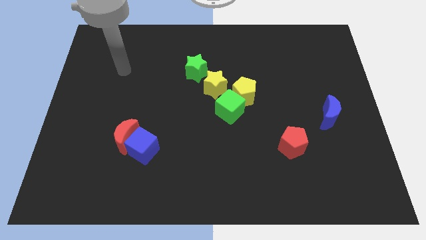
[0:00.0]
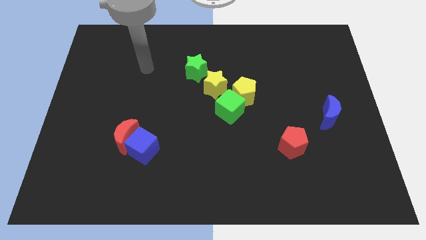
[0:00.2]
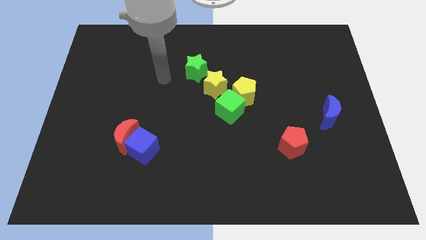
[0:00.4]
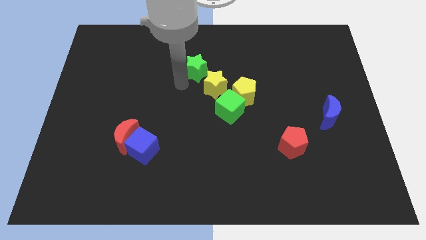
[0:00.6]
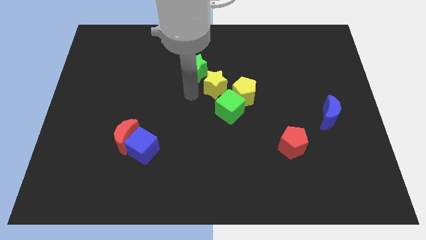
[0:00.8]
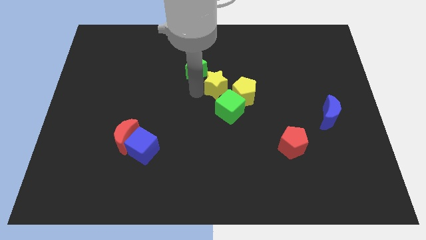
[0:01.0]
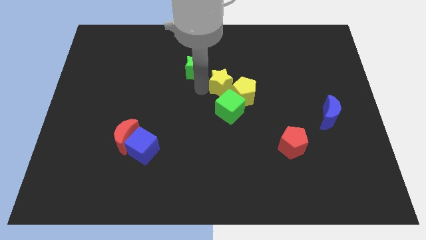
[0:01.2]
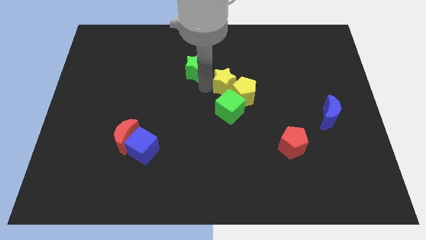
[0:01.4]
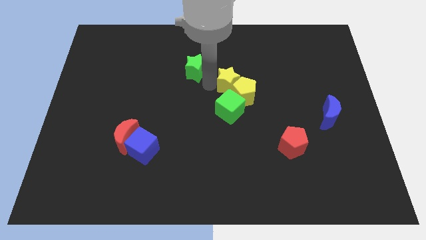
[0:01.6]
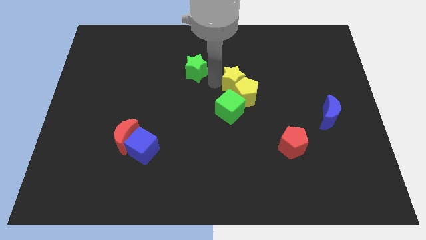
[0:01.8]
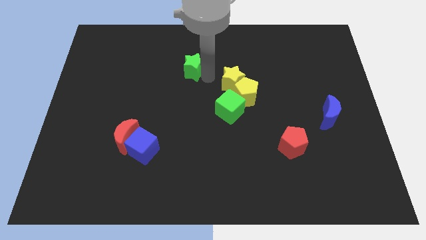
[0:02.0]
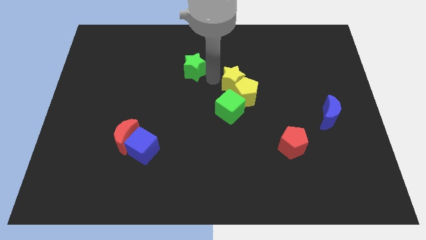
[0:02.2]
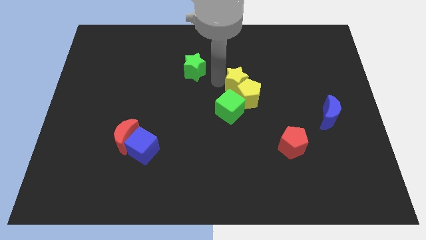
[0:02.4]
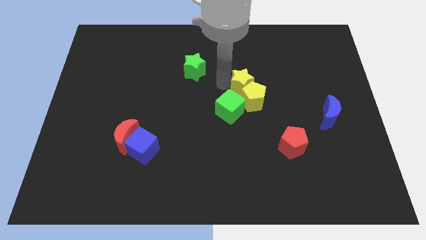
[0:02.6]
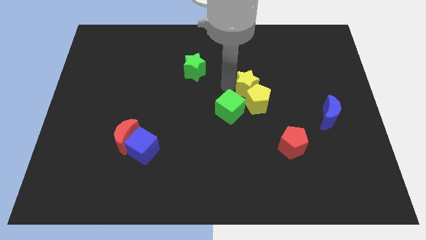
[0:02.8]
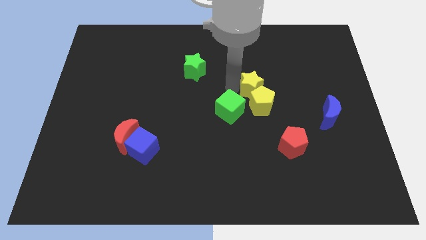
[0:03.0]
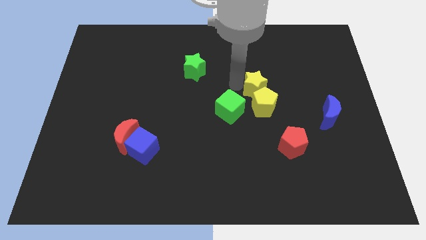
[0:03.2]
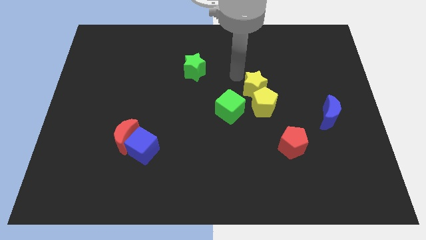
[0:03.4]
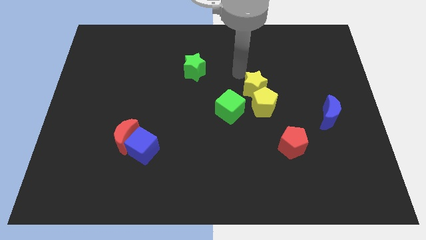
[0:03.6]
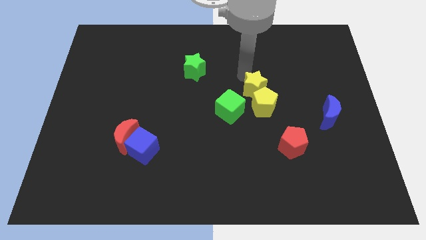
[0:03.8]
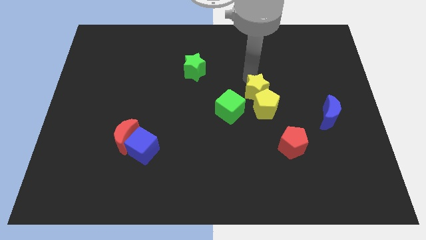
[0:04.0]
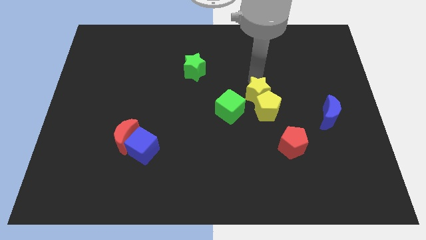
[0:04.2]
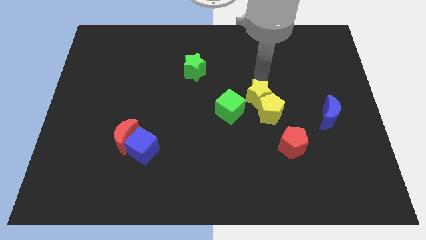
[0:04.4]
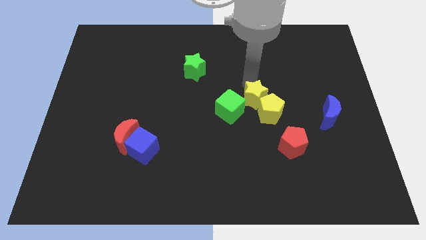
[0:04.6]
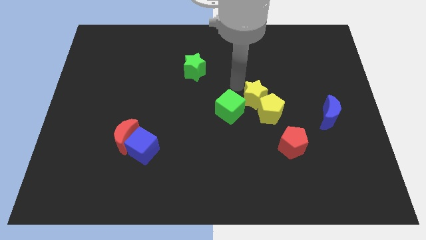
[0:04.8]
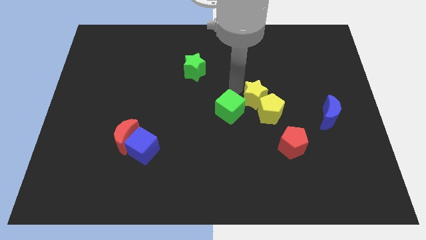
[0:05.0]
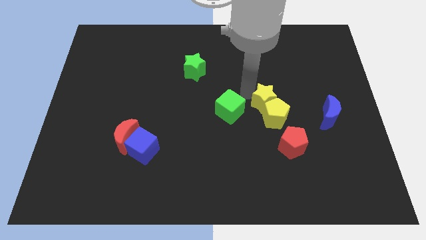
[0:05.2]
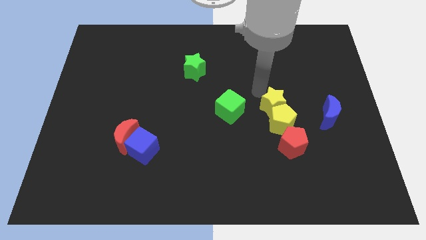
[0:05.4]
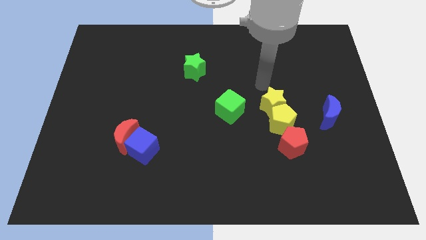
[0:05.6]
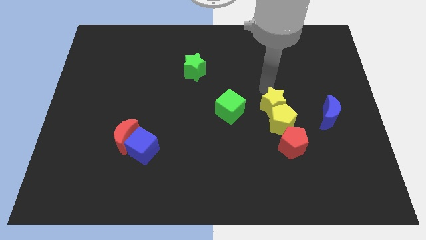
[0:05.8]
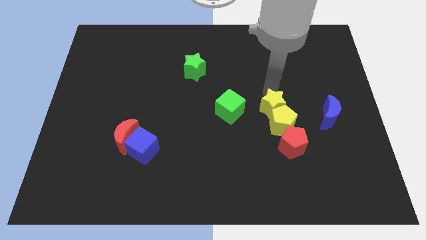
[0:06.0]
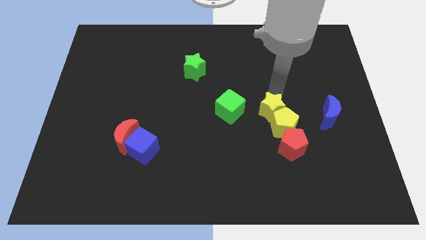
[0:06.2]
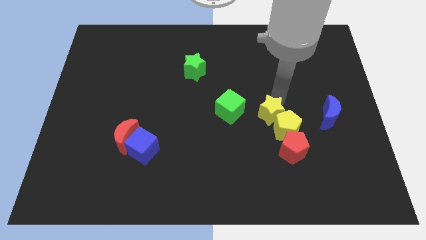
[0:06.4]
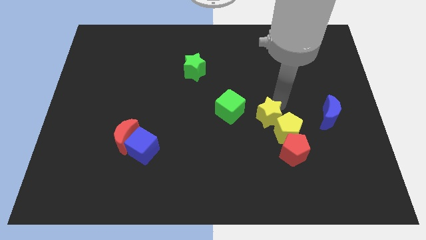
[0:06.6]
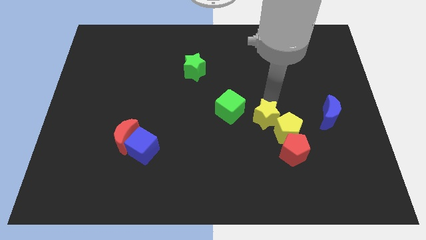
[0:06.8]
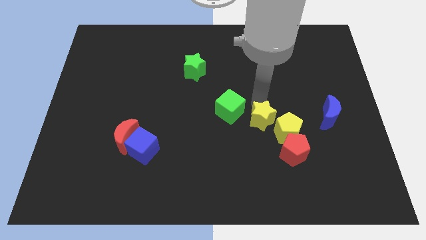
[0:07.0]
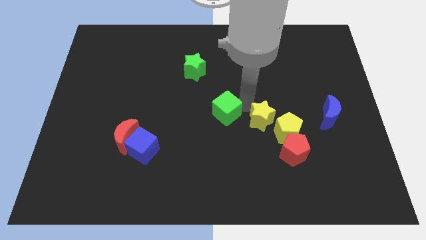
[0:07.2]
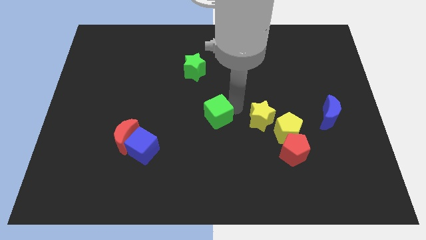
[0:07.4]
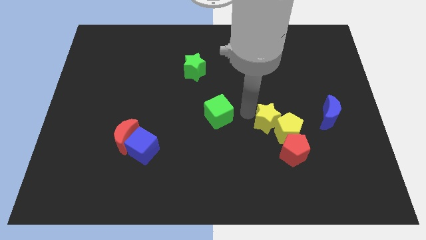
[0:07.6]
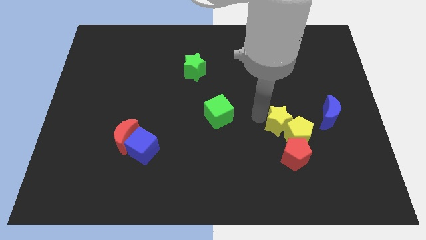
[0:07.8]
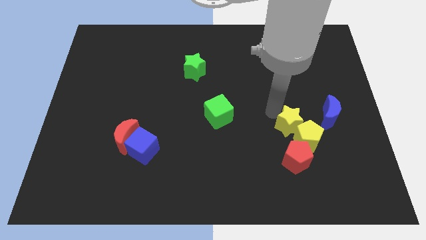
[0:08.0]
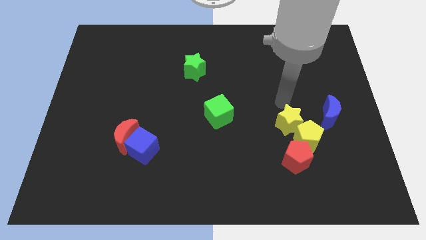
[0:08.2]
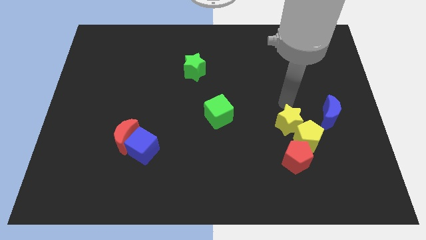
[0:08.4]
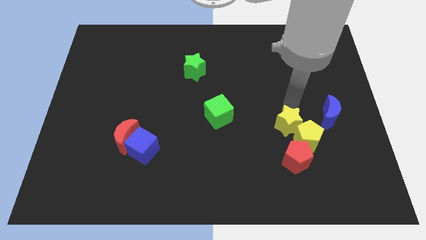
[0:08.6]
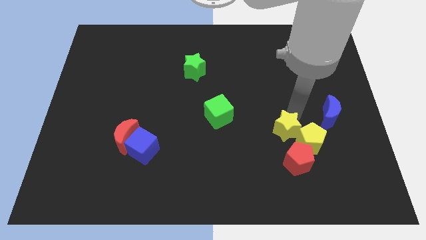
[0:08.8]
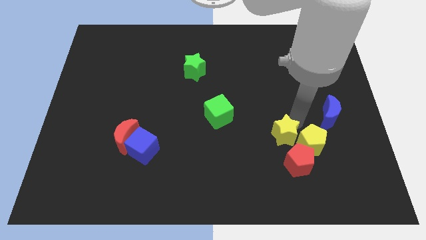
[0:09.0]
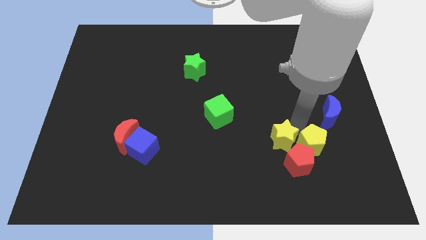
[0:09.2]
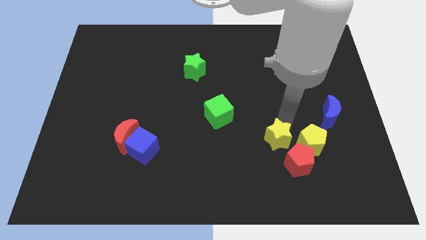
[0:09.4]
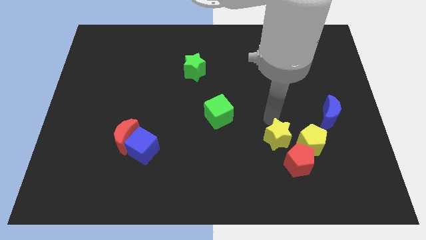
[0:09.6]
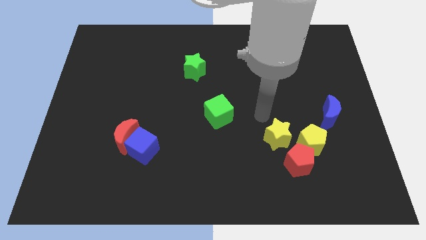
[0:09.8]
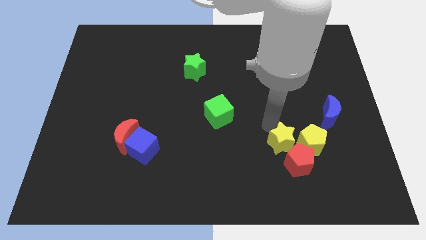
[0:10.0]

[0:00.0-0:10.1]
move the yellow star towards the red pentagon

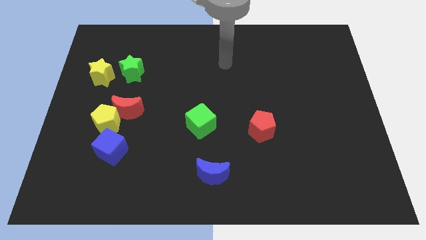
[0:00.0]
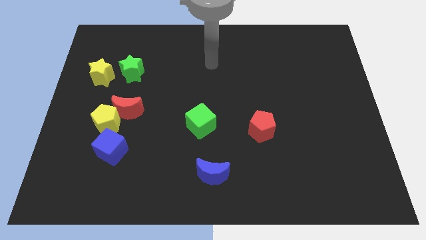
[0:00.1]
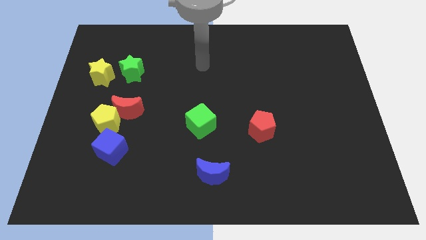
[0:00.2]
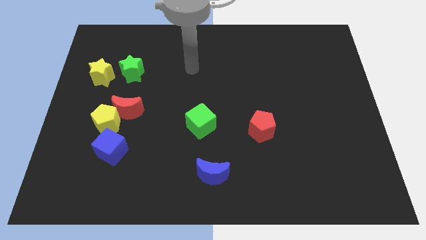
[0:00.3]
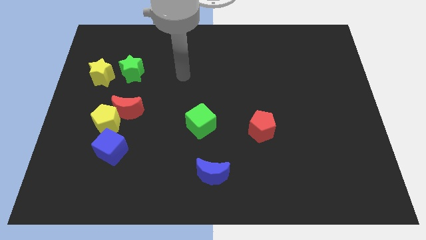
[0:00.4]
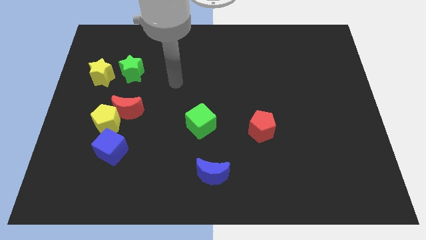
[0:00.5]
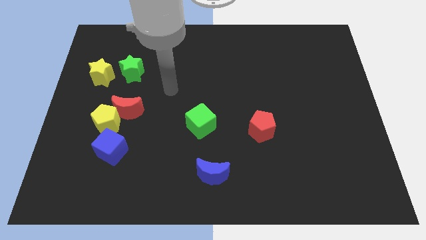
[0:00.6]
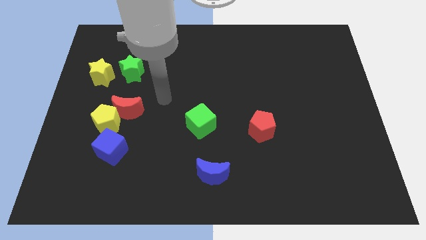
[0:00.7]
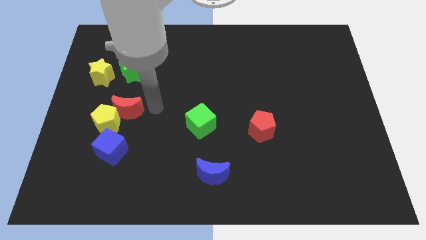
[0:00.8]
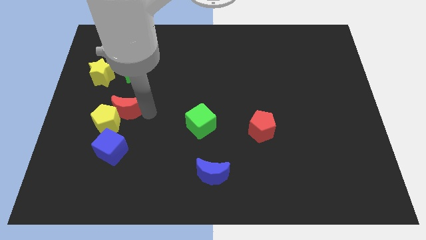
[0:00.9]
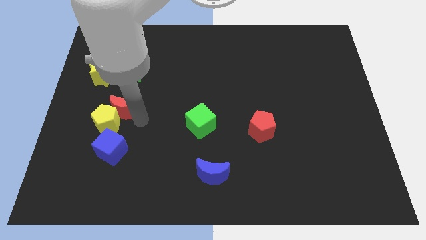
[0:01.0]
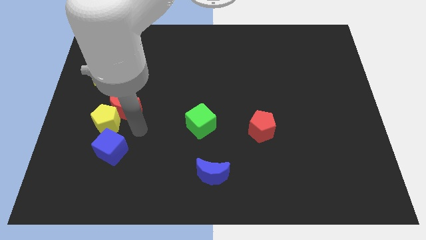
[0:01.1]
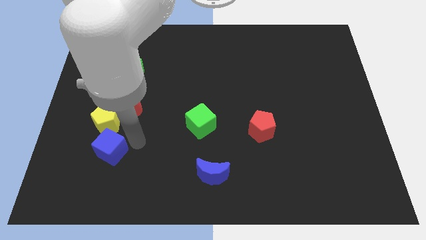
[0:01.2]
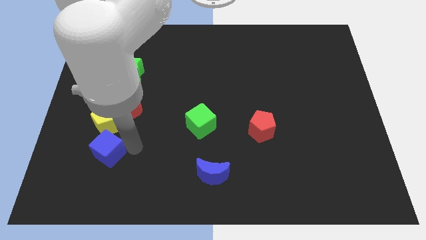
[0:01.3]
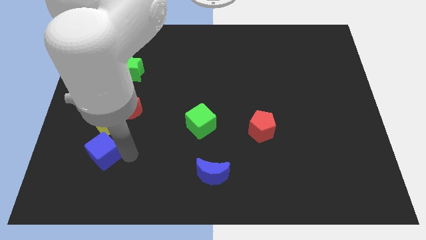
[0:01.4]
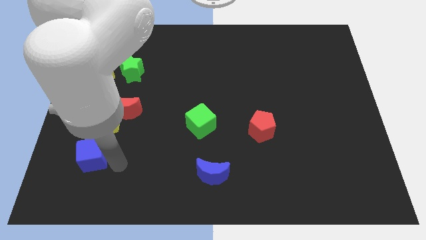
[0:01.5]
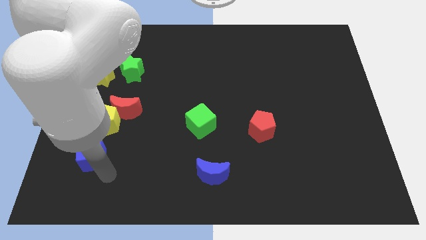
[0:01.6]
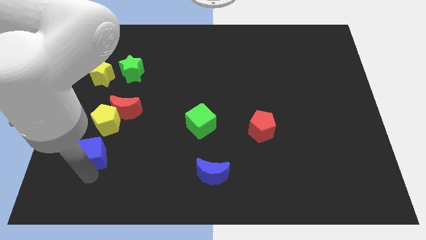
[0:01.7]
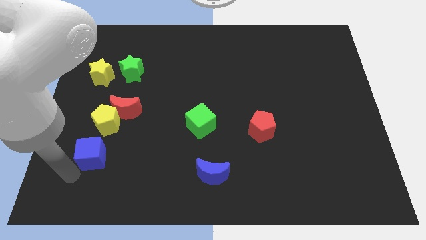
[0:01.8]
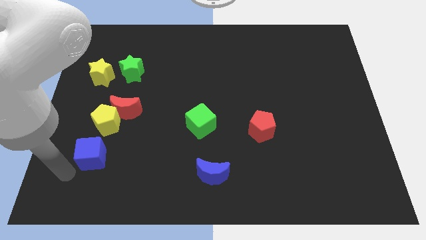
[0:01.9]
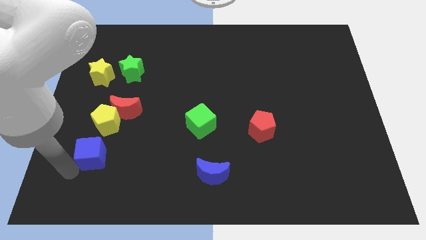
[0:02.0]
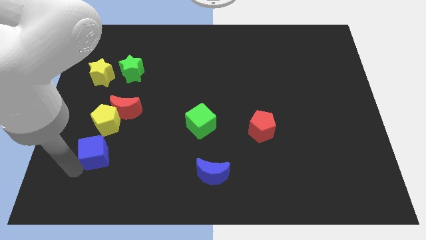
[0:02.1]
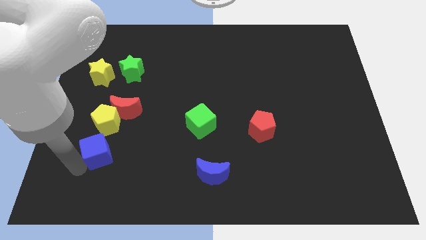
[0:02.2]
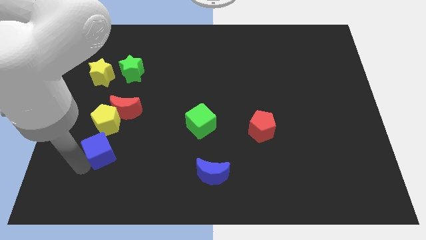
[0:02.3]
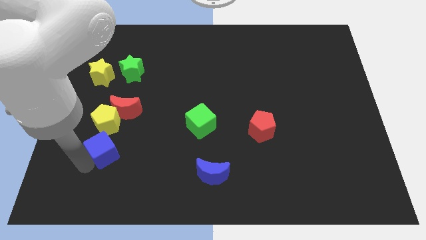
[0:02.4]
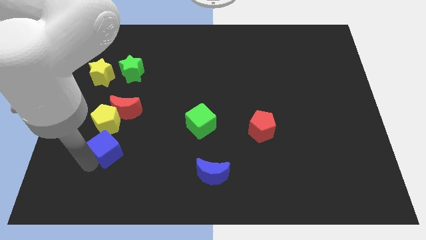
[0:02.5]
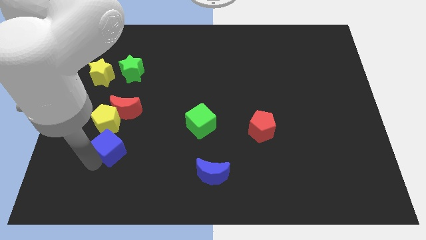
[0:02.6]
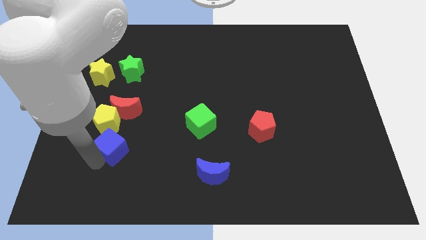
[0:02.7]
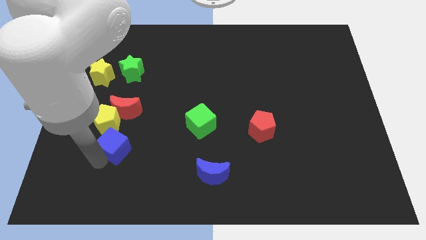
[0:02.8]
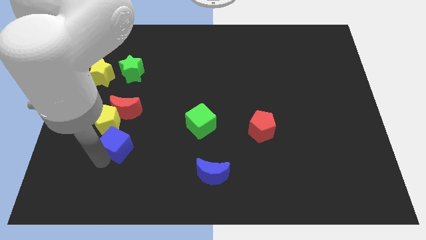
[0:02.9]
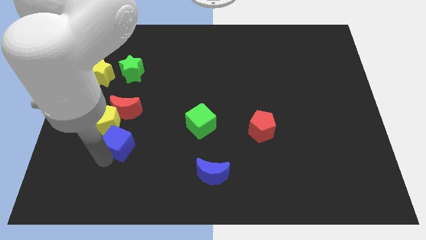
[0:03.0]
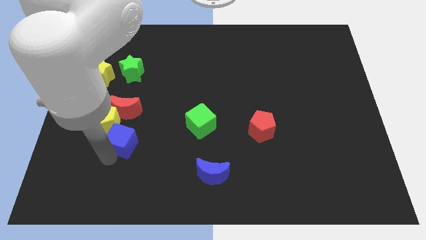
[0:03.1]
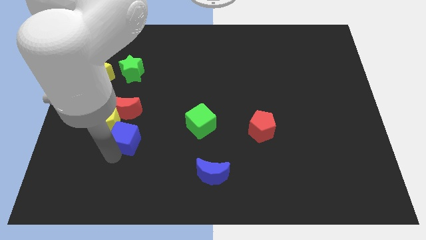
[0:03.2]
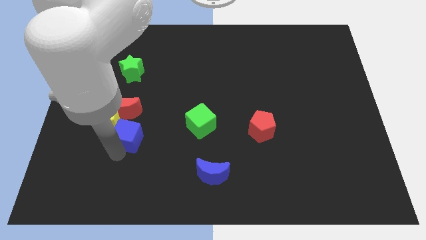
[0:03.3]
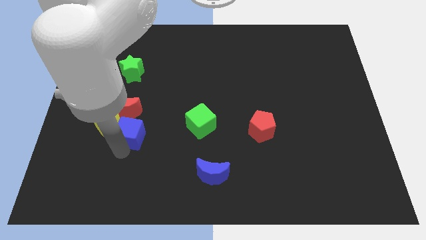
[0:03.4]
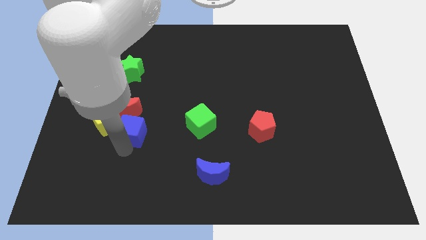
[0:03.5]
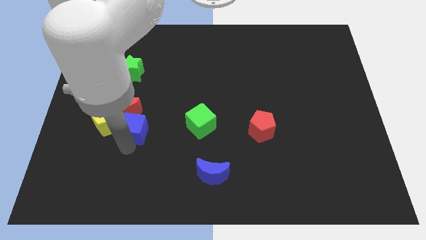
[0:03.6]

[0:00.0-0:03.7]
move the blue cube to the red moon
